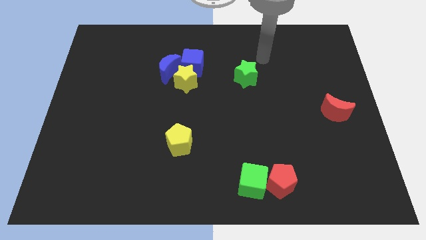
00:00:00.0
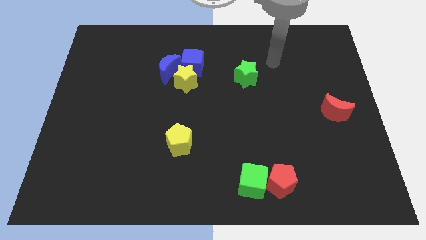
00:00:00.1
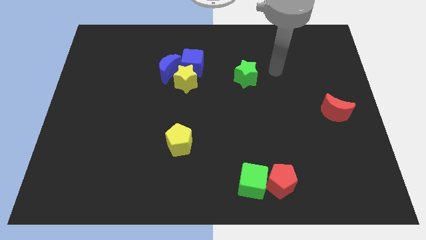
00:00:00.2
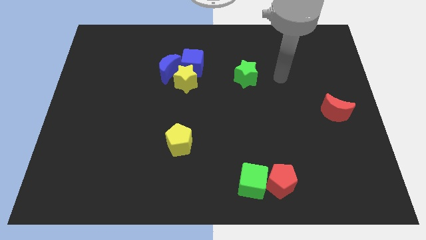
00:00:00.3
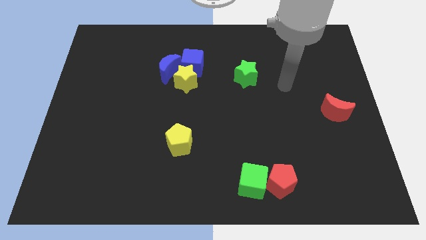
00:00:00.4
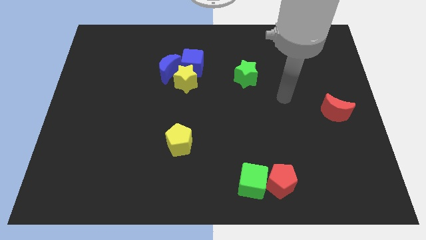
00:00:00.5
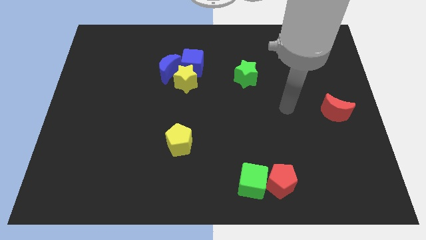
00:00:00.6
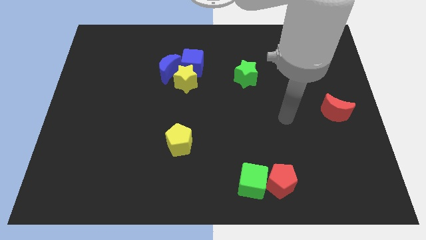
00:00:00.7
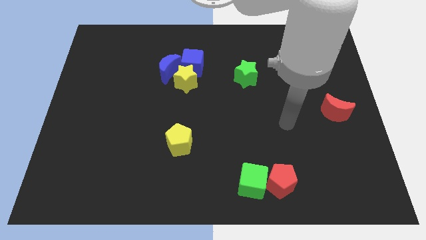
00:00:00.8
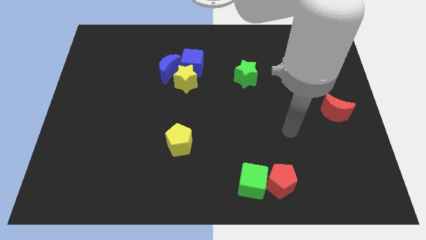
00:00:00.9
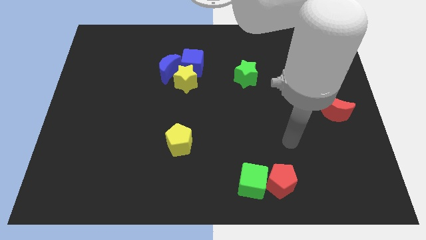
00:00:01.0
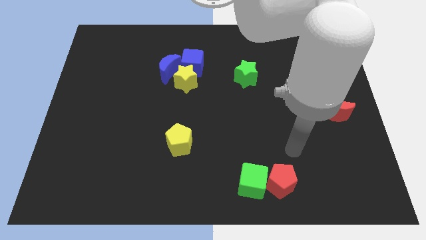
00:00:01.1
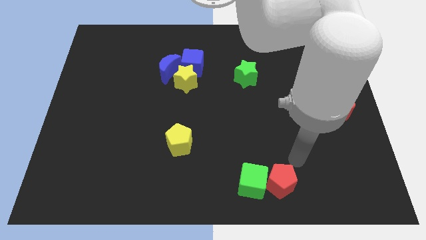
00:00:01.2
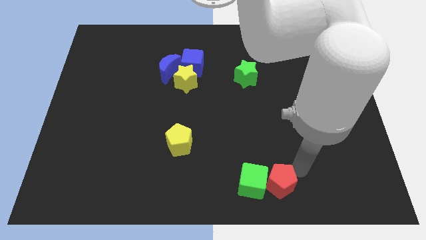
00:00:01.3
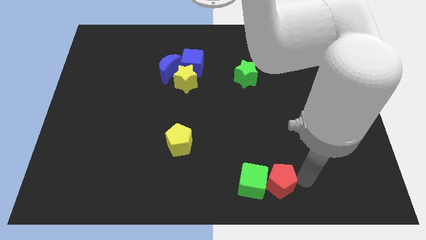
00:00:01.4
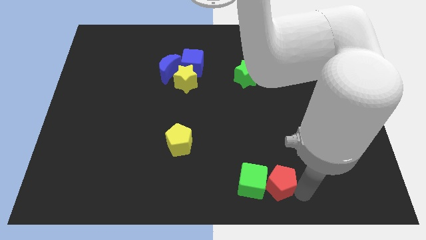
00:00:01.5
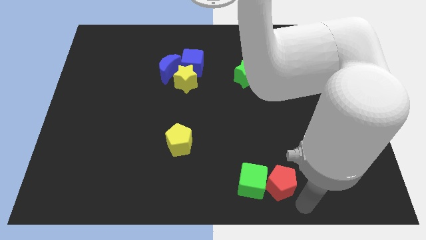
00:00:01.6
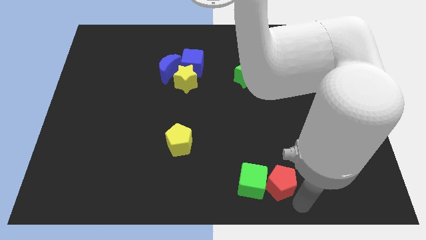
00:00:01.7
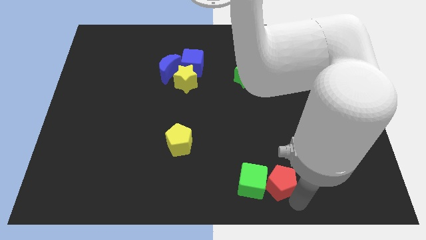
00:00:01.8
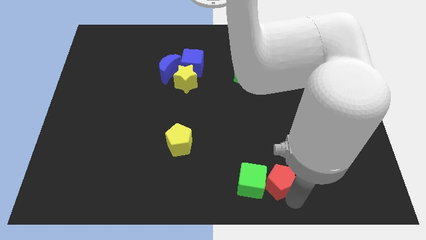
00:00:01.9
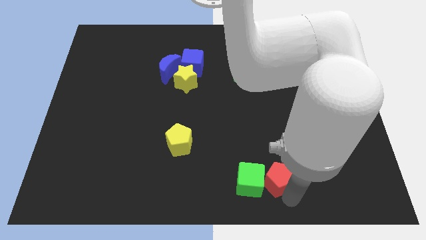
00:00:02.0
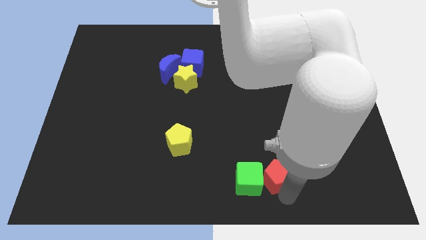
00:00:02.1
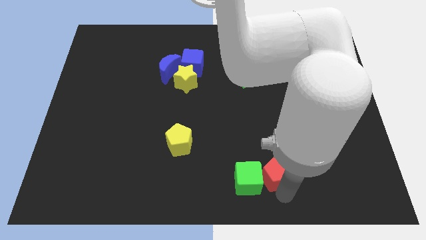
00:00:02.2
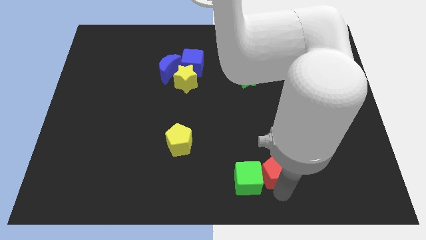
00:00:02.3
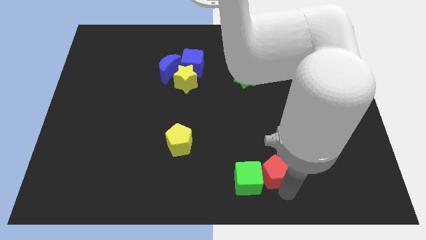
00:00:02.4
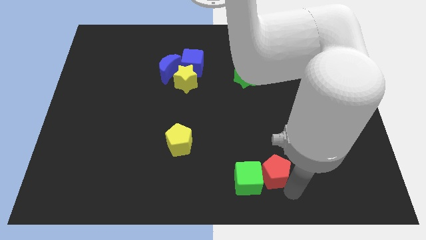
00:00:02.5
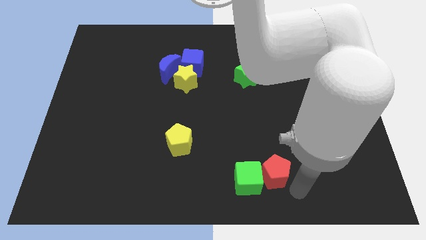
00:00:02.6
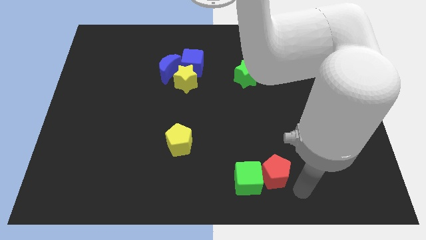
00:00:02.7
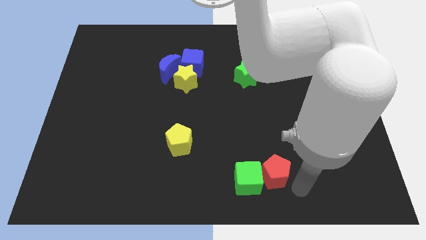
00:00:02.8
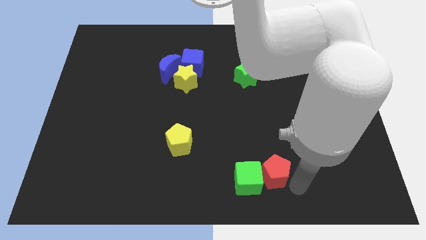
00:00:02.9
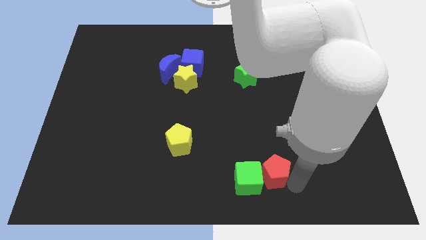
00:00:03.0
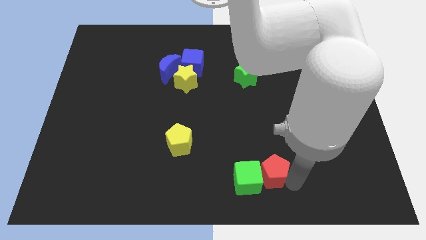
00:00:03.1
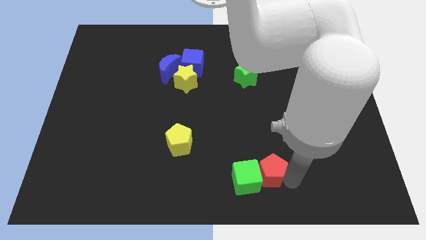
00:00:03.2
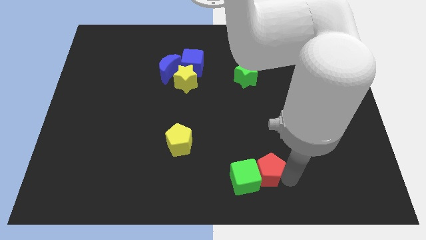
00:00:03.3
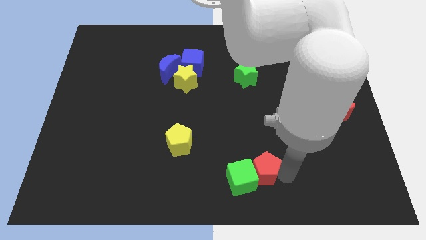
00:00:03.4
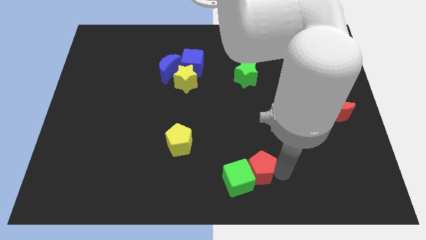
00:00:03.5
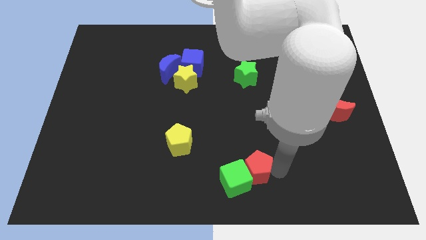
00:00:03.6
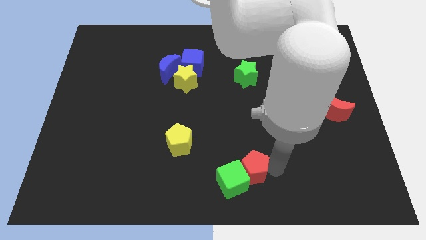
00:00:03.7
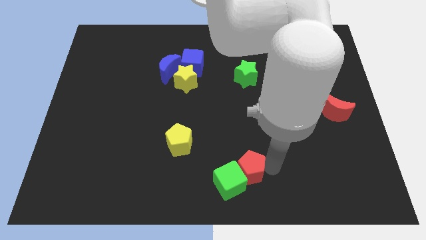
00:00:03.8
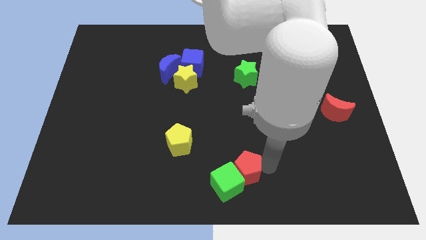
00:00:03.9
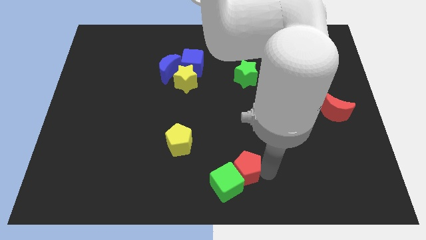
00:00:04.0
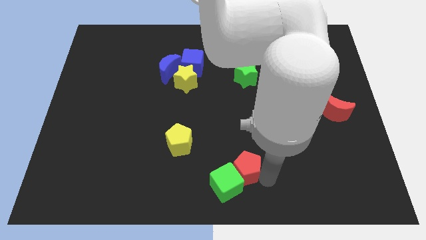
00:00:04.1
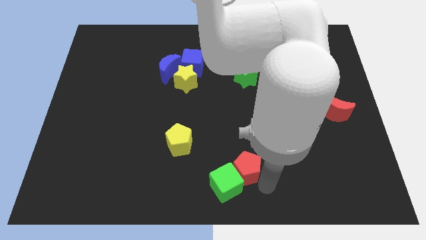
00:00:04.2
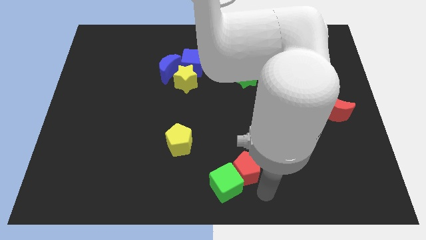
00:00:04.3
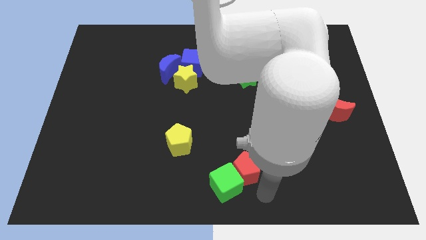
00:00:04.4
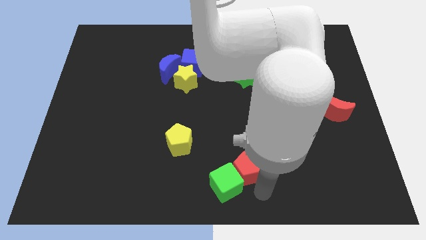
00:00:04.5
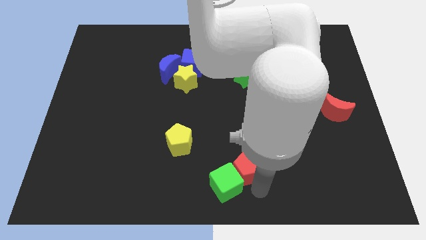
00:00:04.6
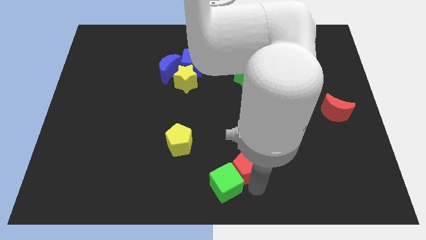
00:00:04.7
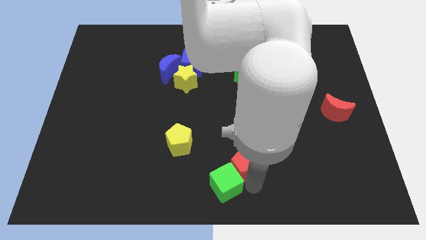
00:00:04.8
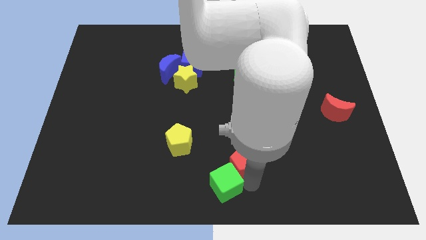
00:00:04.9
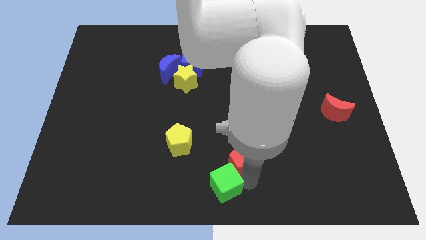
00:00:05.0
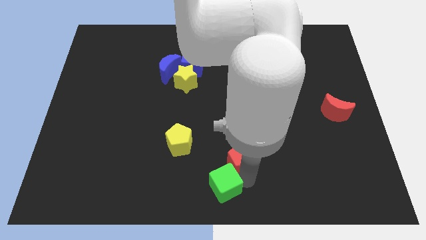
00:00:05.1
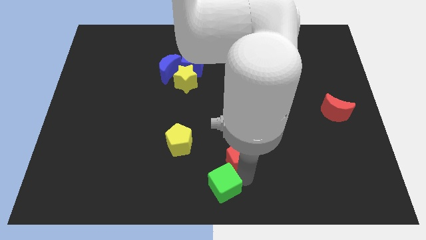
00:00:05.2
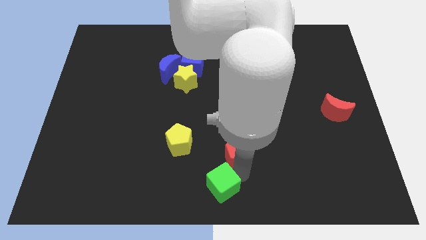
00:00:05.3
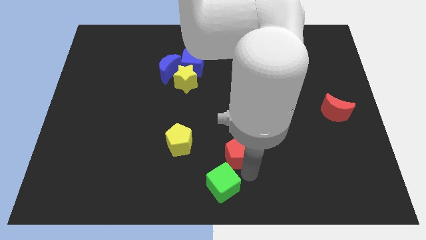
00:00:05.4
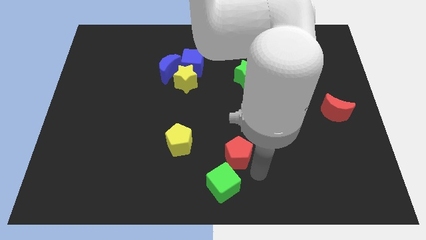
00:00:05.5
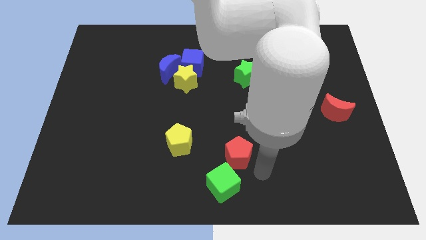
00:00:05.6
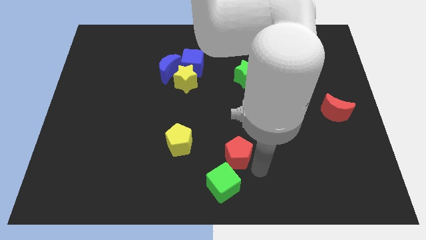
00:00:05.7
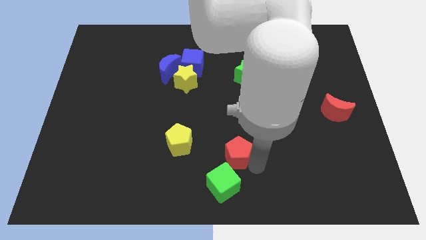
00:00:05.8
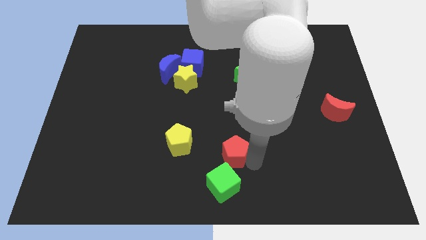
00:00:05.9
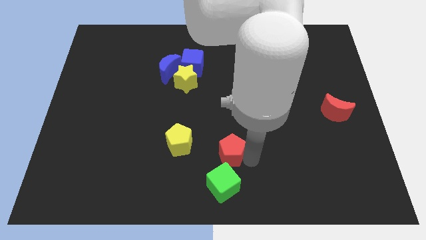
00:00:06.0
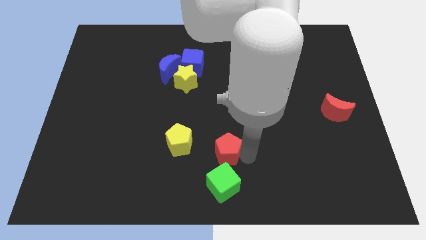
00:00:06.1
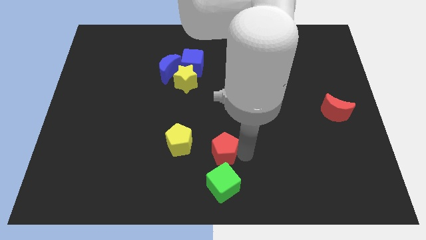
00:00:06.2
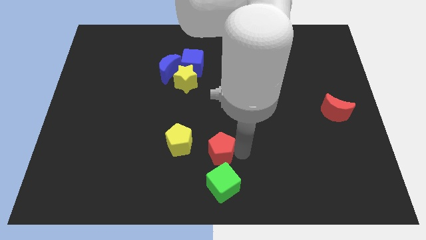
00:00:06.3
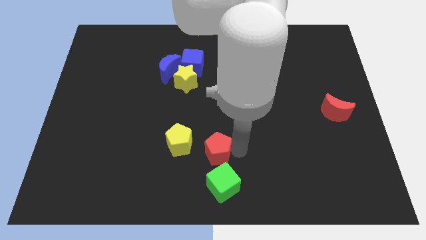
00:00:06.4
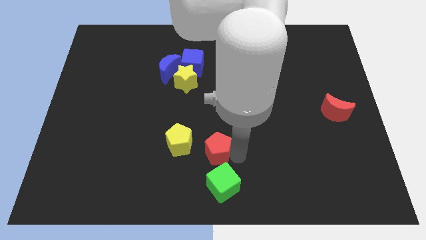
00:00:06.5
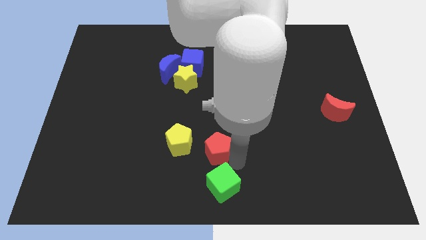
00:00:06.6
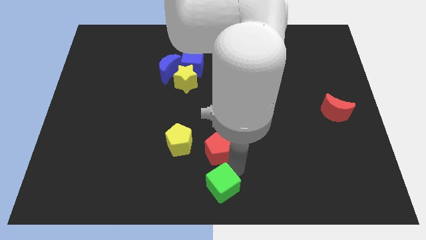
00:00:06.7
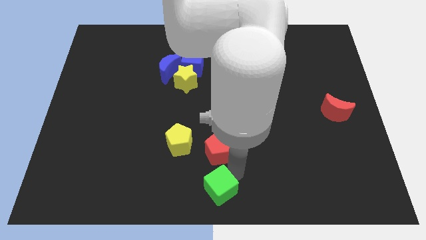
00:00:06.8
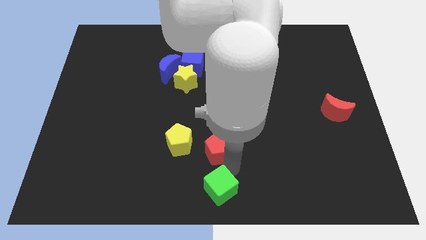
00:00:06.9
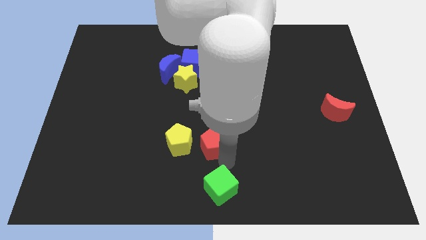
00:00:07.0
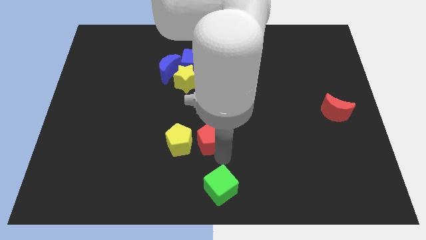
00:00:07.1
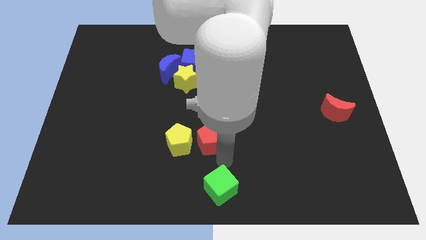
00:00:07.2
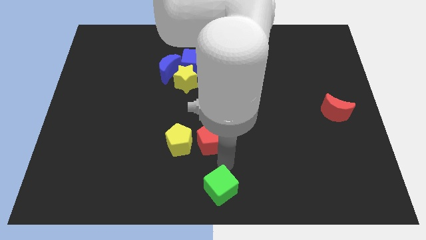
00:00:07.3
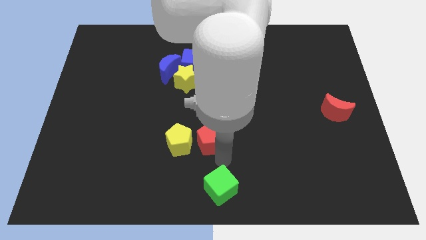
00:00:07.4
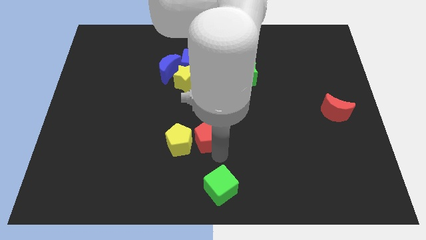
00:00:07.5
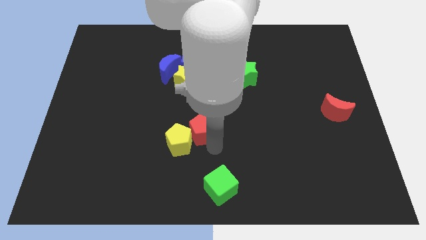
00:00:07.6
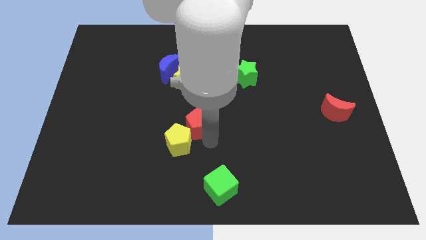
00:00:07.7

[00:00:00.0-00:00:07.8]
move the red pentagon to the bottom of the yellow star
